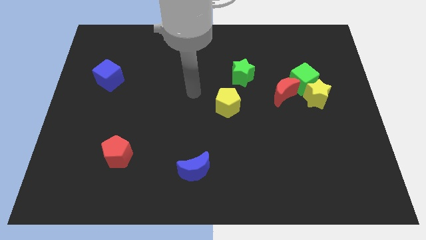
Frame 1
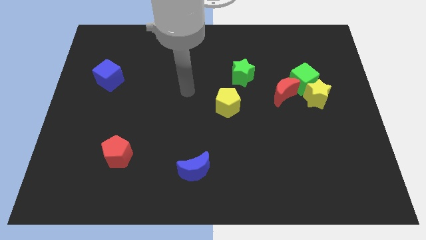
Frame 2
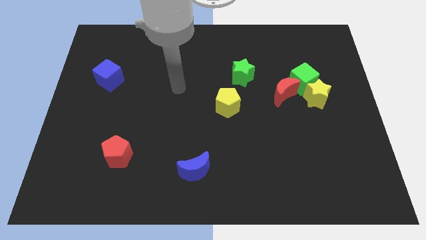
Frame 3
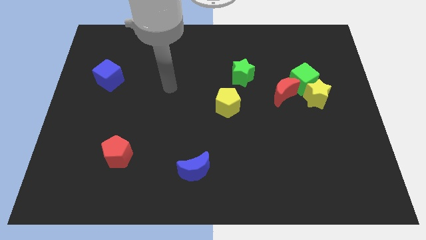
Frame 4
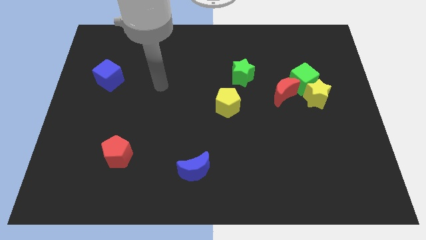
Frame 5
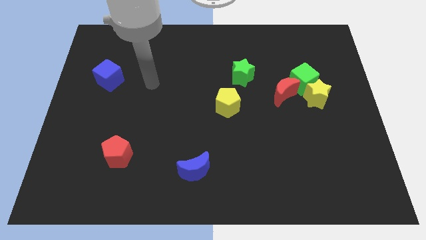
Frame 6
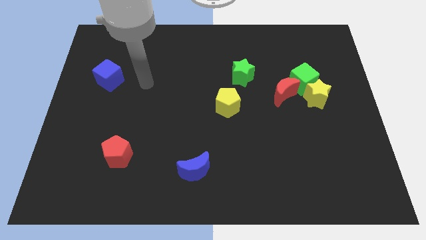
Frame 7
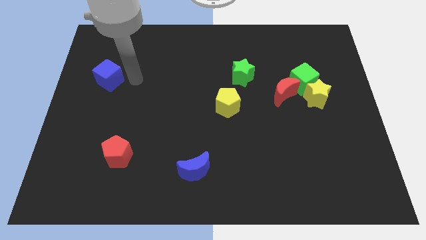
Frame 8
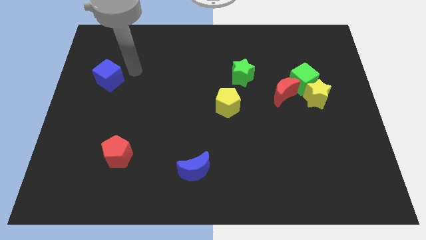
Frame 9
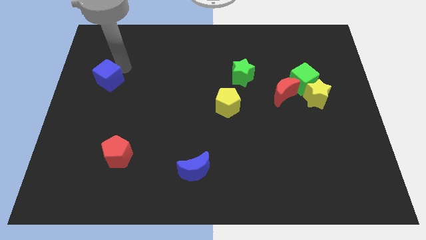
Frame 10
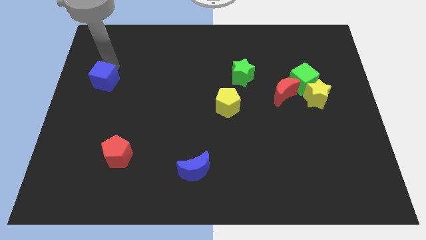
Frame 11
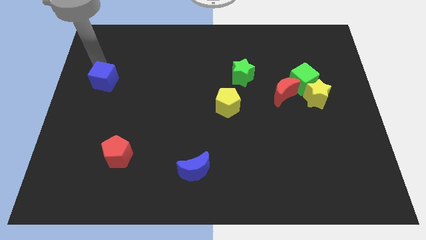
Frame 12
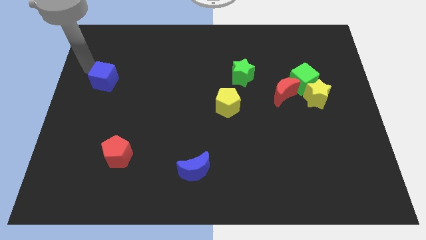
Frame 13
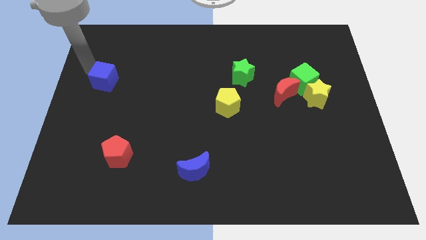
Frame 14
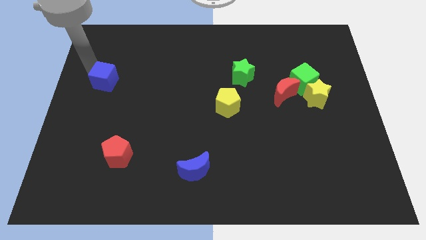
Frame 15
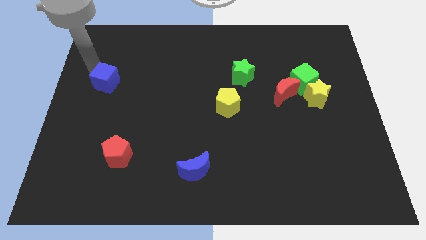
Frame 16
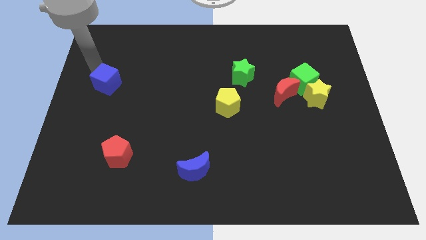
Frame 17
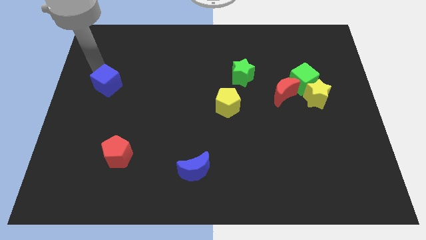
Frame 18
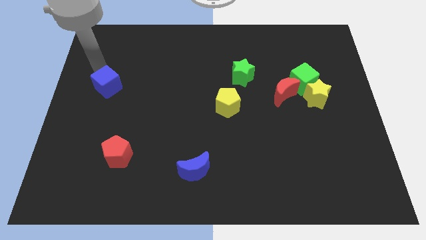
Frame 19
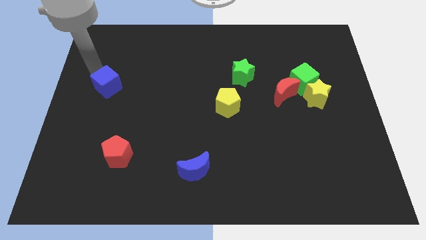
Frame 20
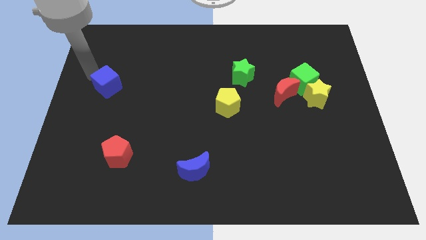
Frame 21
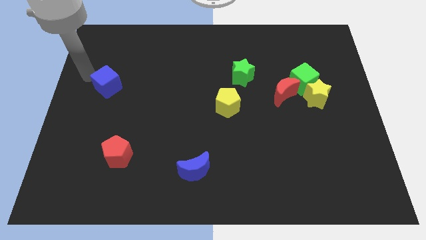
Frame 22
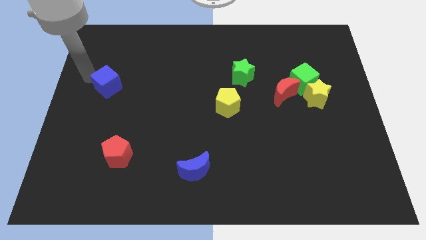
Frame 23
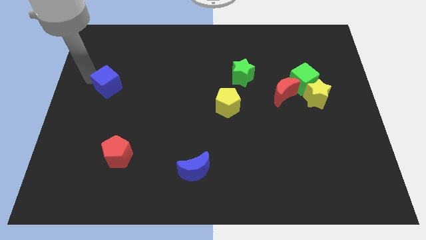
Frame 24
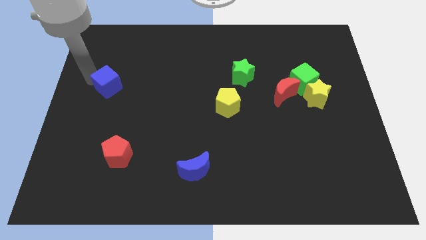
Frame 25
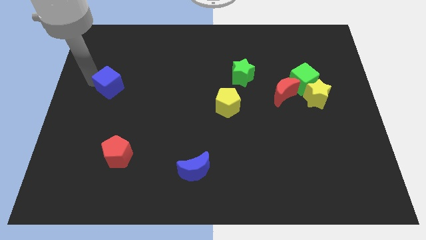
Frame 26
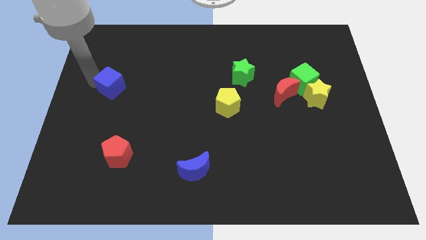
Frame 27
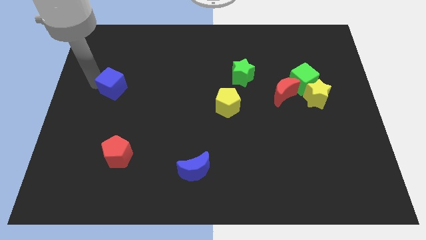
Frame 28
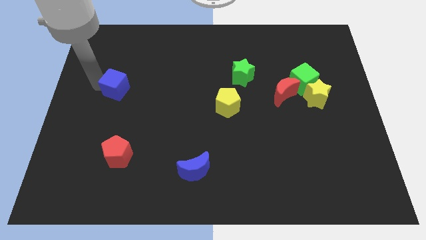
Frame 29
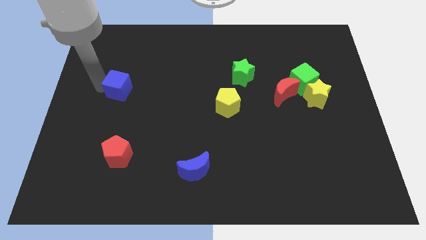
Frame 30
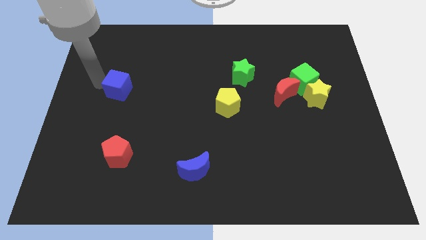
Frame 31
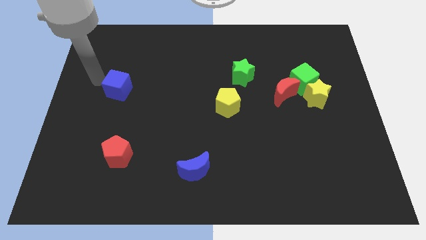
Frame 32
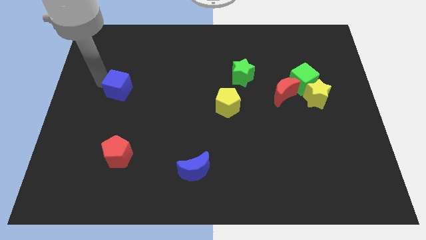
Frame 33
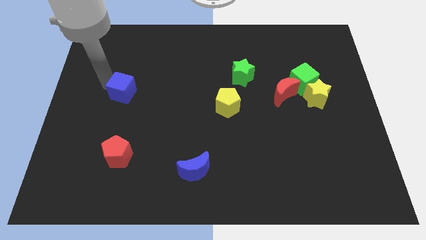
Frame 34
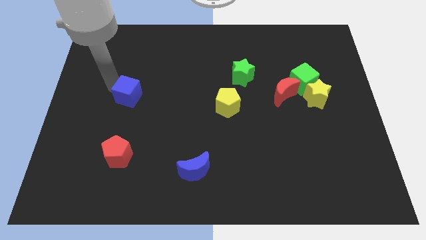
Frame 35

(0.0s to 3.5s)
move the blue cube a little bit downwards and then right

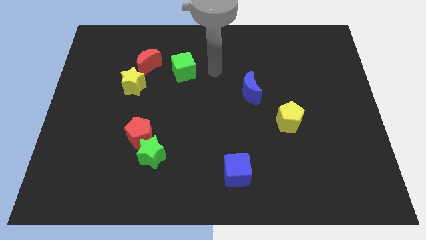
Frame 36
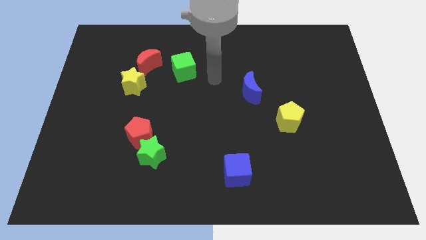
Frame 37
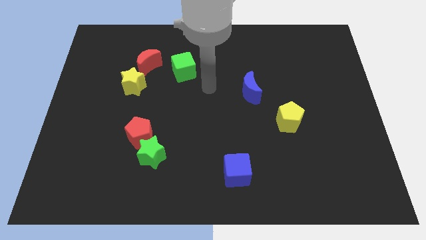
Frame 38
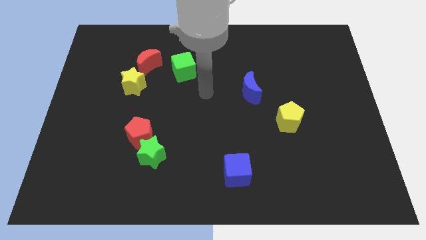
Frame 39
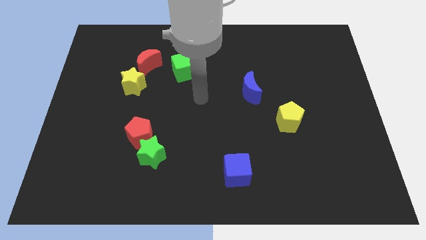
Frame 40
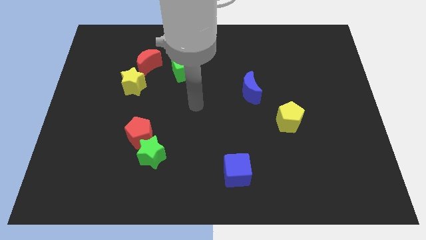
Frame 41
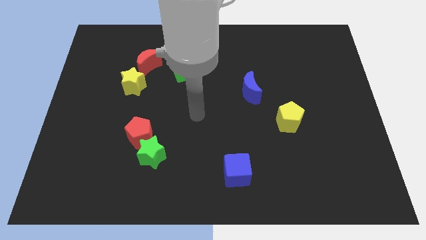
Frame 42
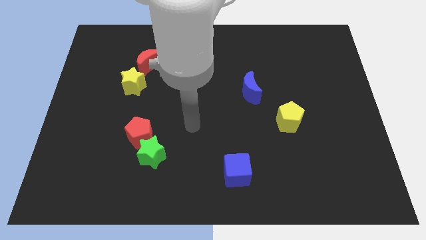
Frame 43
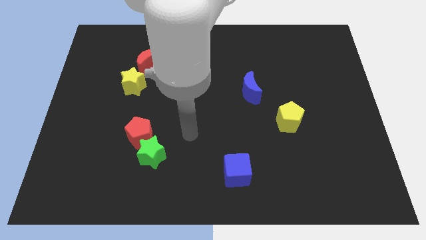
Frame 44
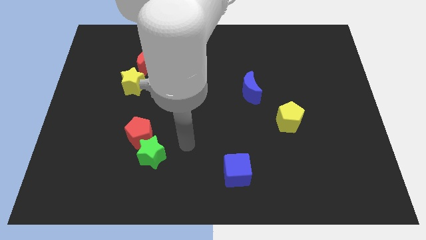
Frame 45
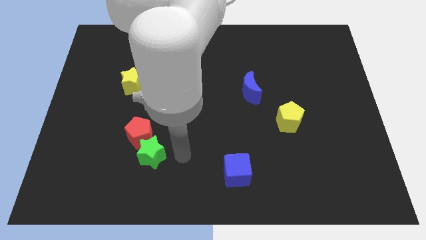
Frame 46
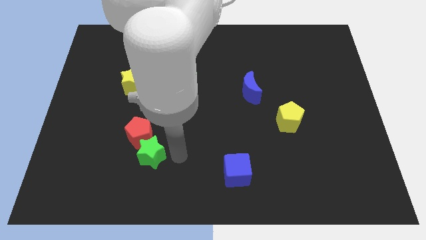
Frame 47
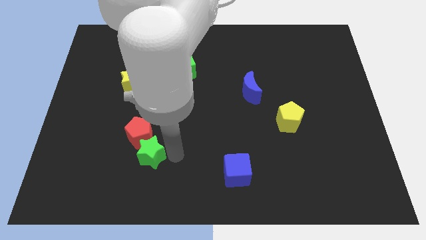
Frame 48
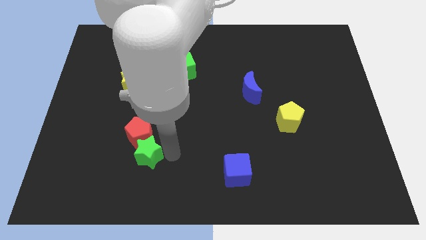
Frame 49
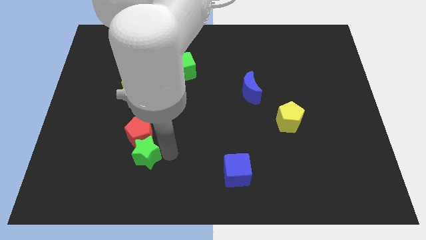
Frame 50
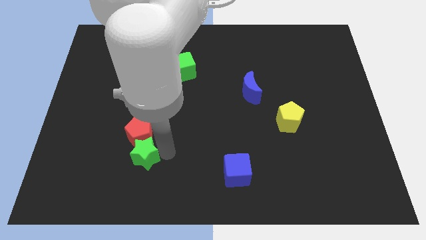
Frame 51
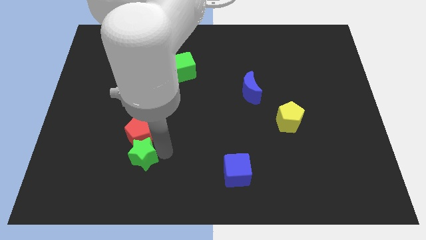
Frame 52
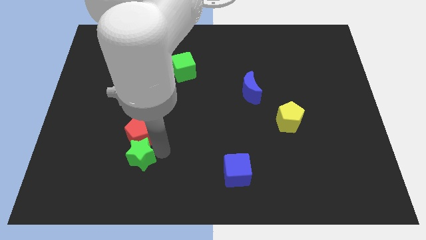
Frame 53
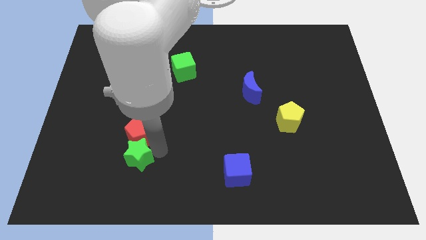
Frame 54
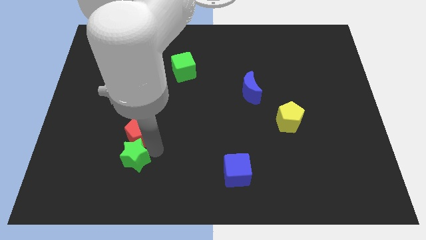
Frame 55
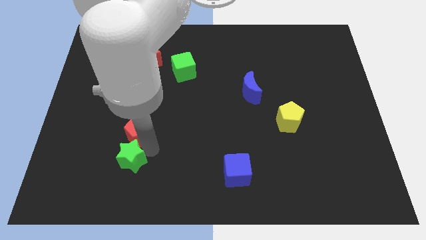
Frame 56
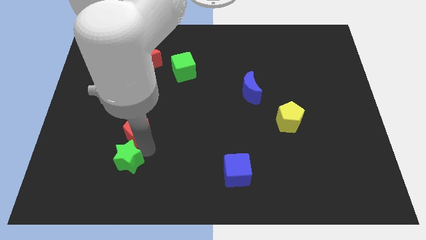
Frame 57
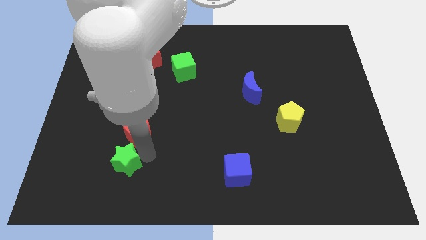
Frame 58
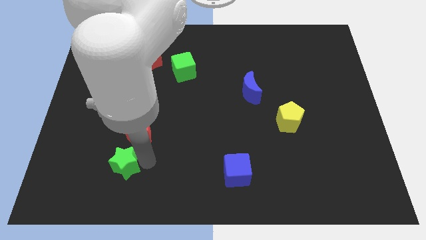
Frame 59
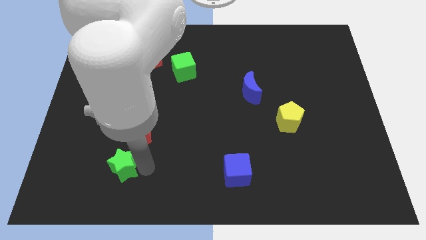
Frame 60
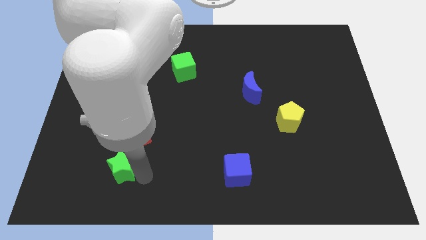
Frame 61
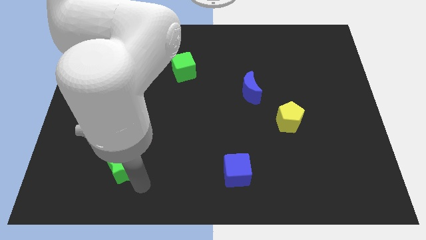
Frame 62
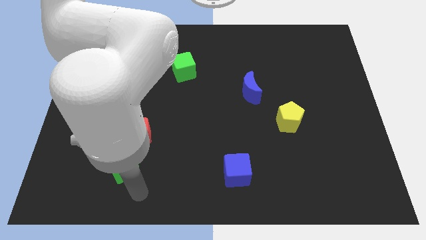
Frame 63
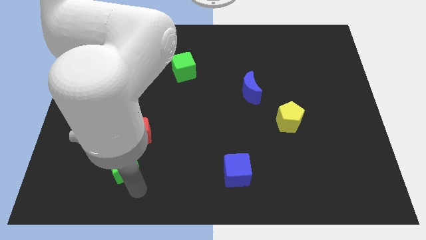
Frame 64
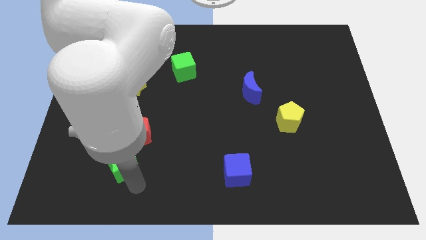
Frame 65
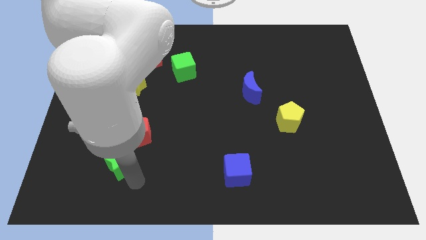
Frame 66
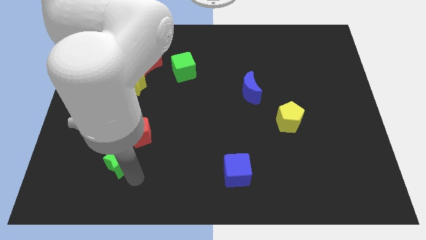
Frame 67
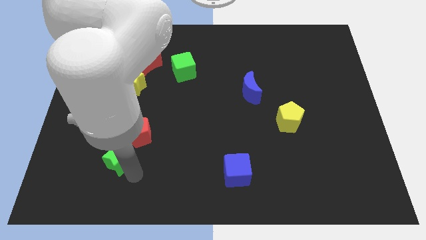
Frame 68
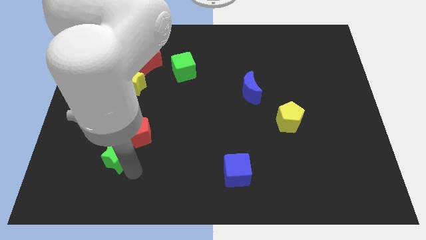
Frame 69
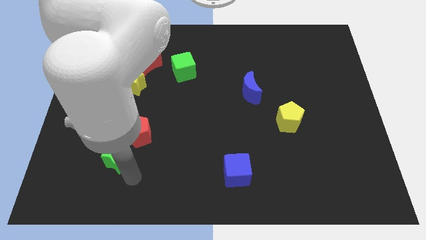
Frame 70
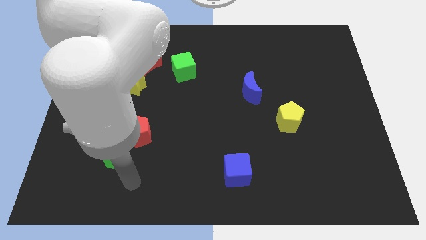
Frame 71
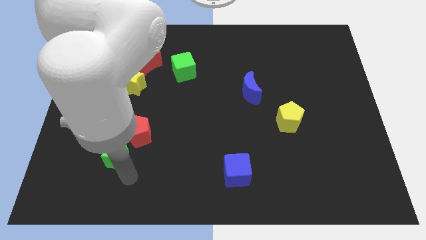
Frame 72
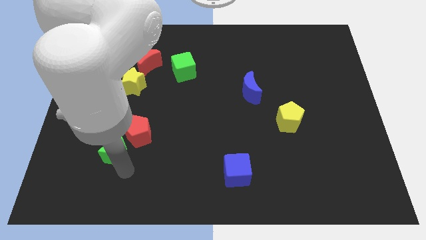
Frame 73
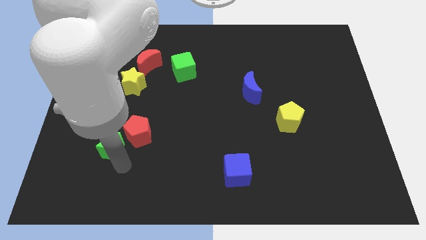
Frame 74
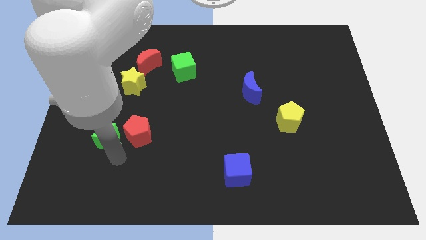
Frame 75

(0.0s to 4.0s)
slightly slide the green star upwards and to the left diagonally

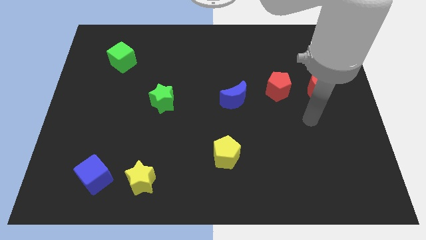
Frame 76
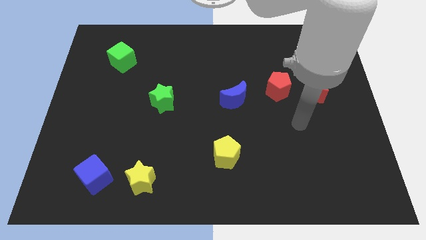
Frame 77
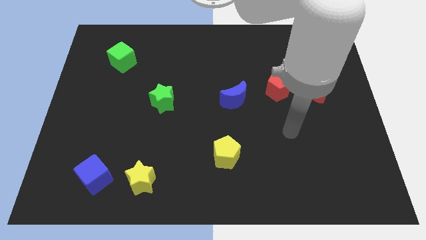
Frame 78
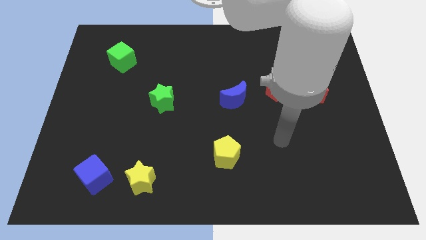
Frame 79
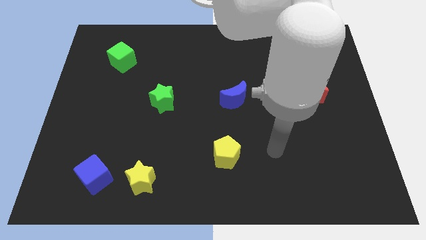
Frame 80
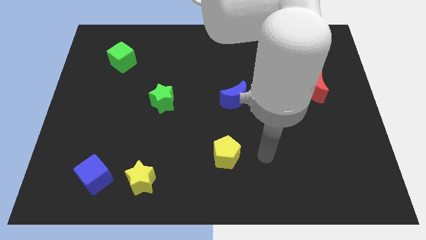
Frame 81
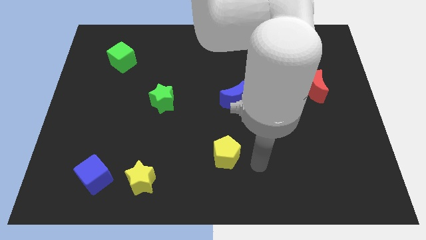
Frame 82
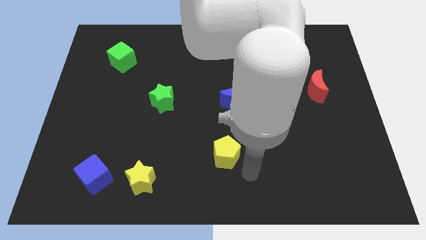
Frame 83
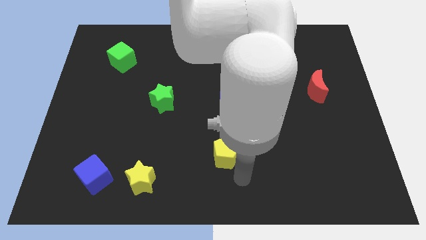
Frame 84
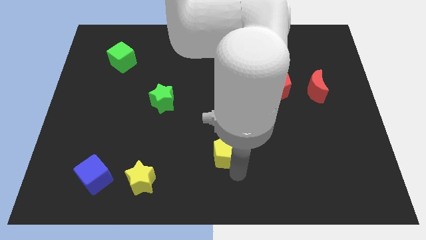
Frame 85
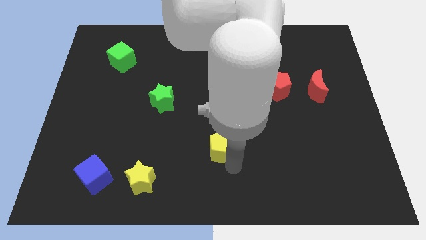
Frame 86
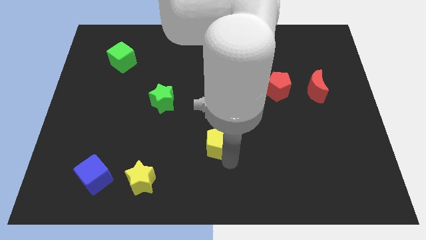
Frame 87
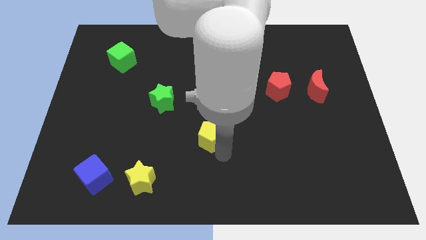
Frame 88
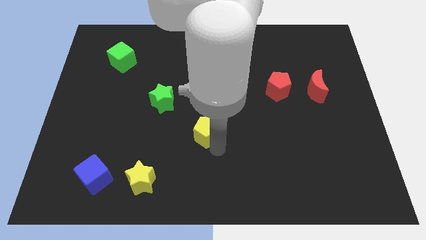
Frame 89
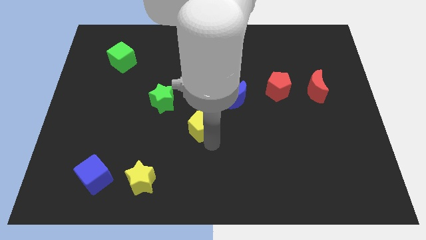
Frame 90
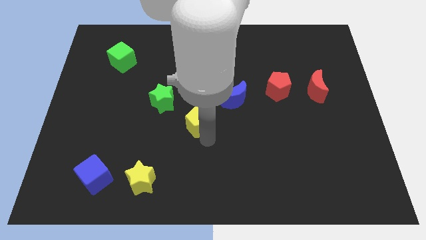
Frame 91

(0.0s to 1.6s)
push the yellow pentagon slightly up
